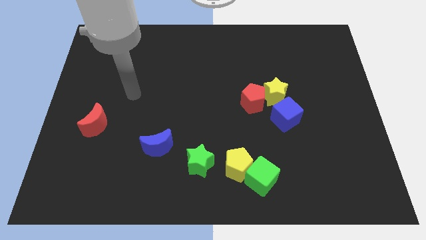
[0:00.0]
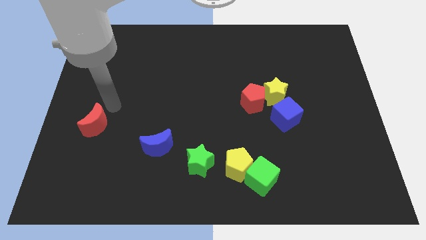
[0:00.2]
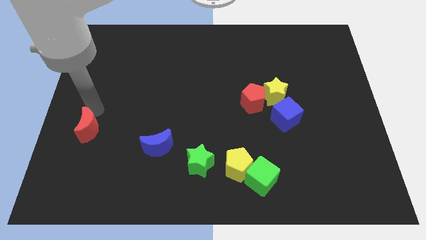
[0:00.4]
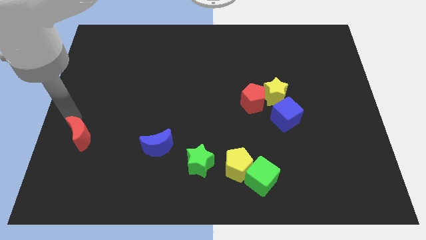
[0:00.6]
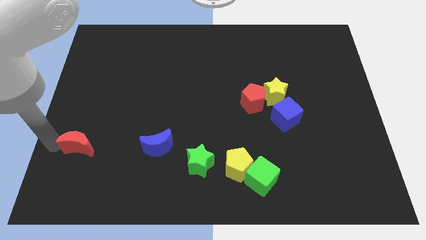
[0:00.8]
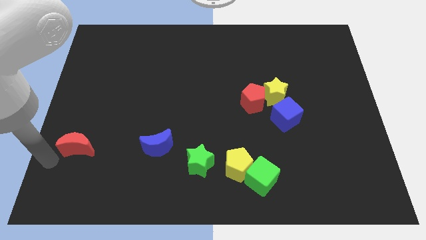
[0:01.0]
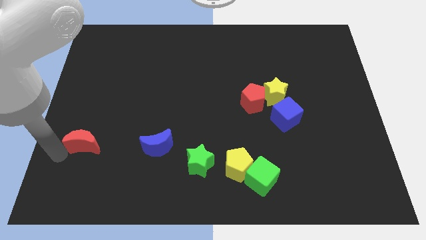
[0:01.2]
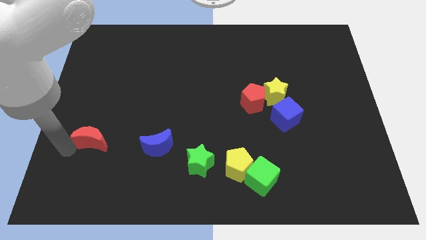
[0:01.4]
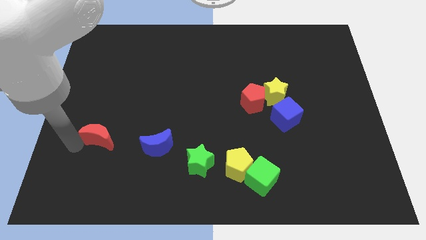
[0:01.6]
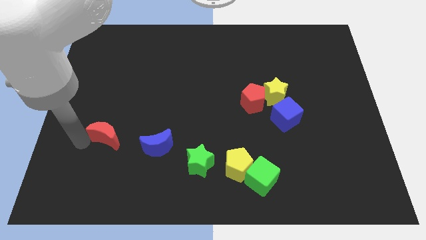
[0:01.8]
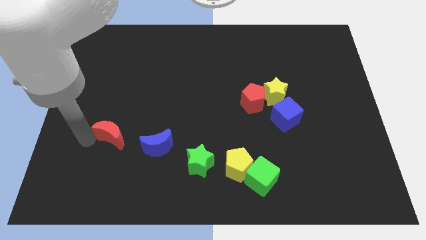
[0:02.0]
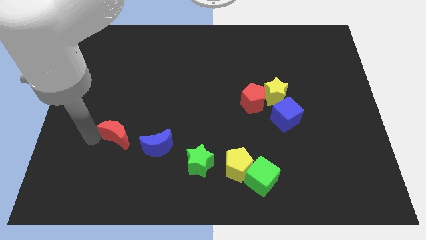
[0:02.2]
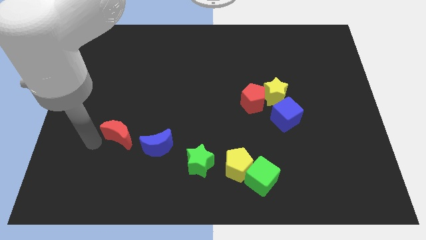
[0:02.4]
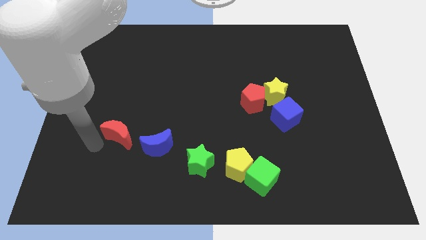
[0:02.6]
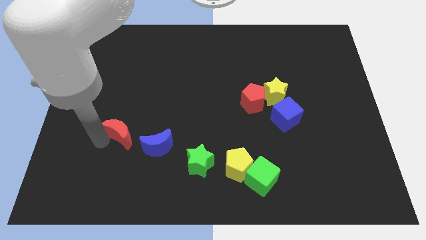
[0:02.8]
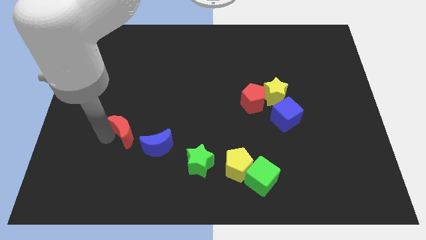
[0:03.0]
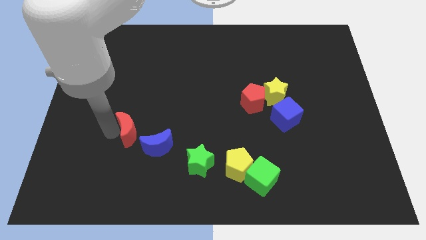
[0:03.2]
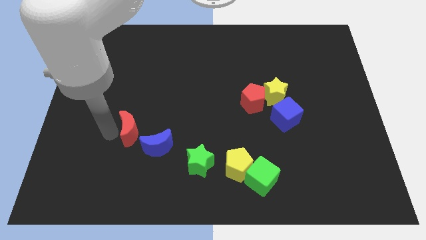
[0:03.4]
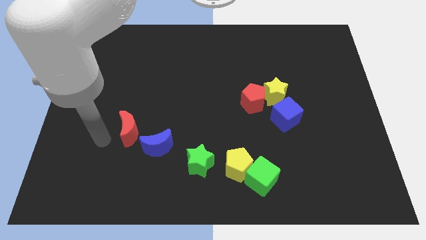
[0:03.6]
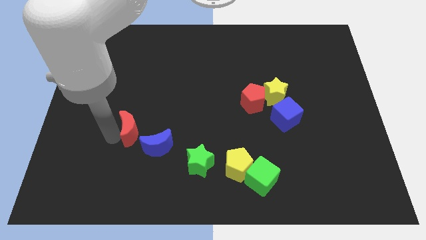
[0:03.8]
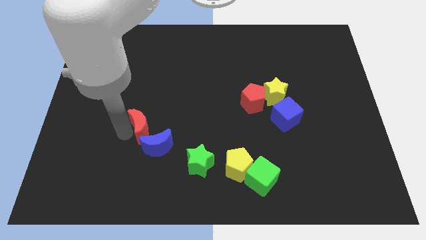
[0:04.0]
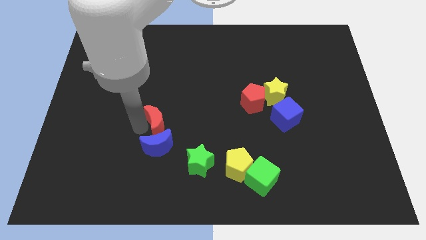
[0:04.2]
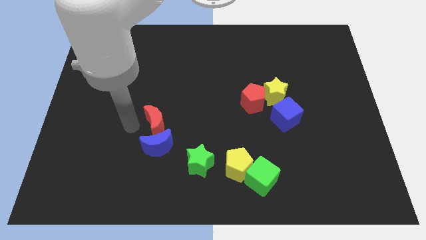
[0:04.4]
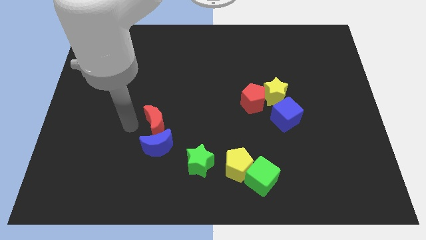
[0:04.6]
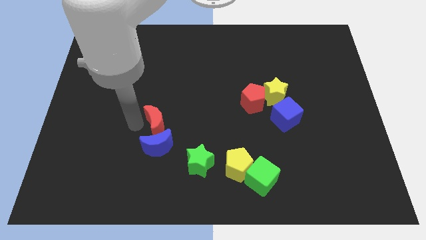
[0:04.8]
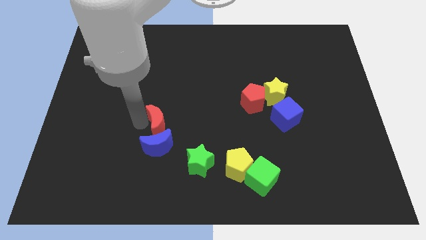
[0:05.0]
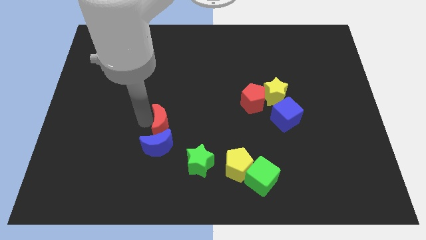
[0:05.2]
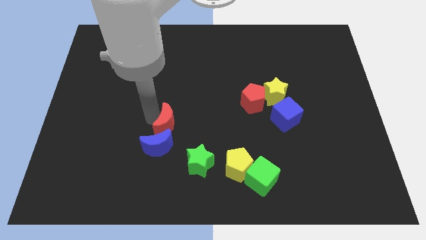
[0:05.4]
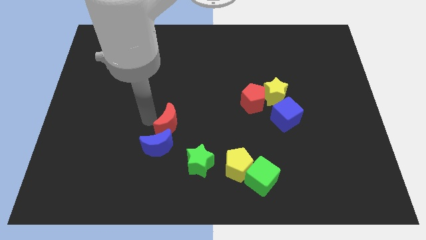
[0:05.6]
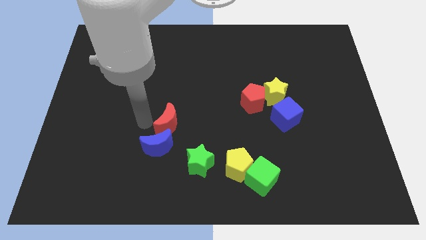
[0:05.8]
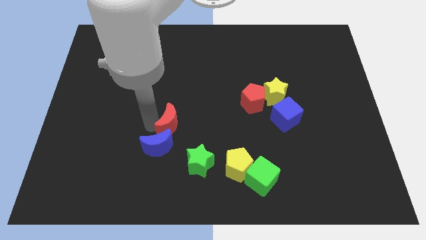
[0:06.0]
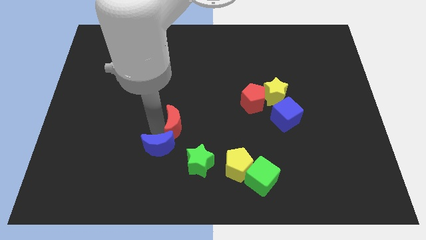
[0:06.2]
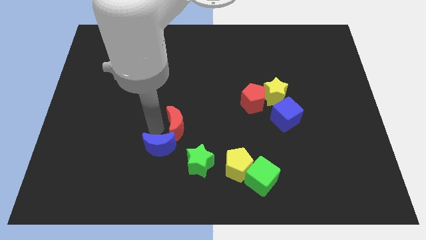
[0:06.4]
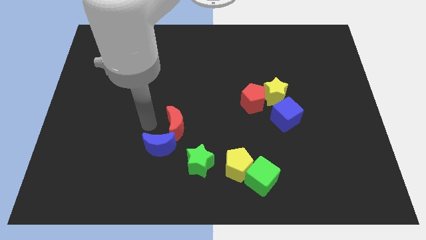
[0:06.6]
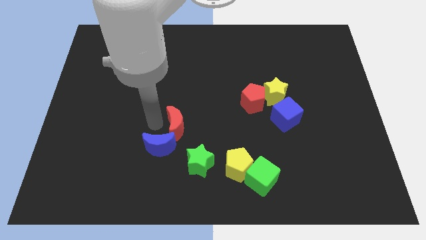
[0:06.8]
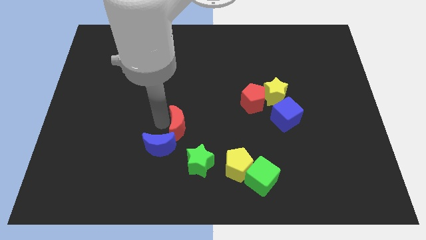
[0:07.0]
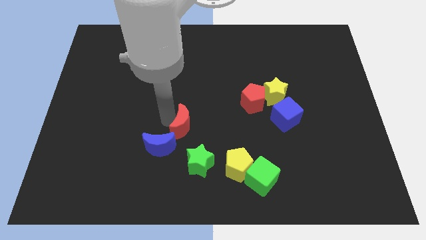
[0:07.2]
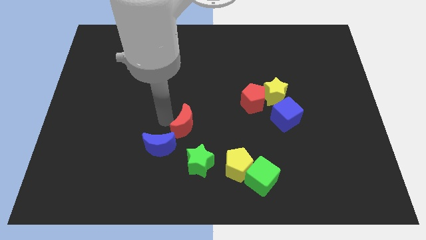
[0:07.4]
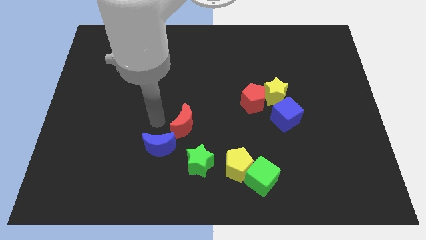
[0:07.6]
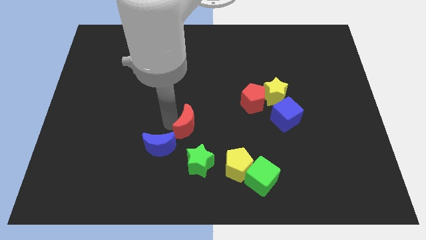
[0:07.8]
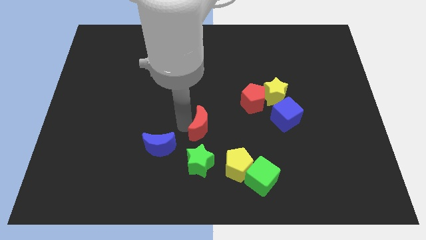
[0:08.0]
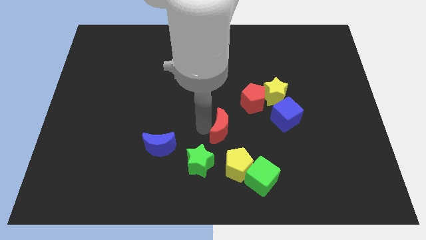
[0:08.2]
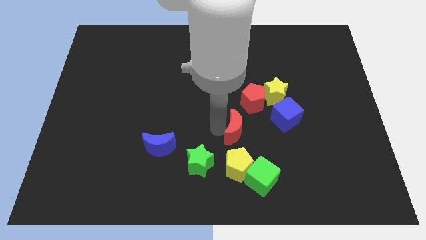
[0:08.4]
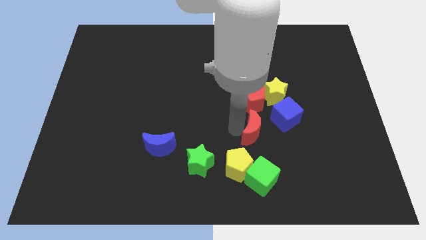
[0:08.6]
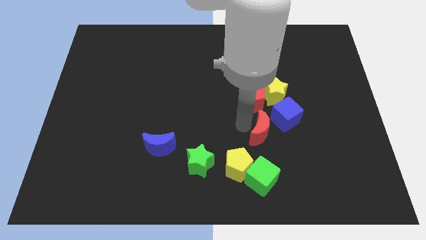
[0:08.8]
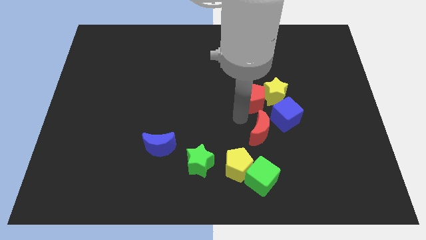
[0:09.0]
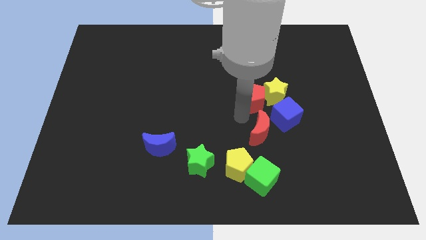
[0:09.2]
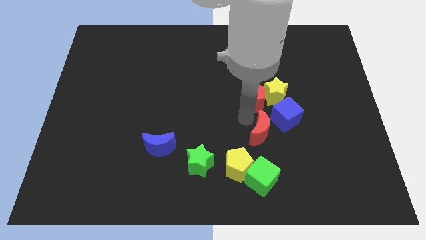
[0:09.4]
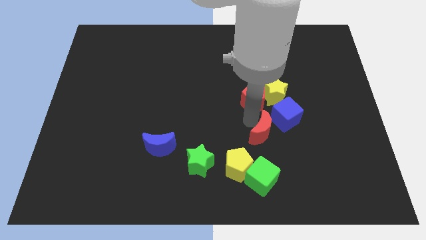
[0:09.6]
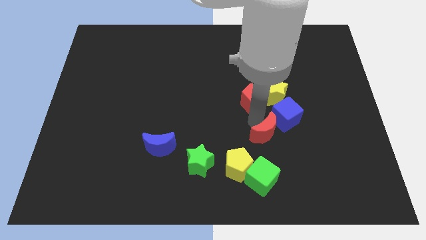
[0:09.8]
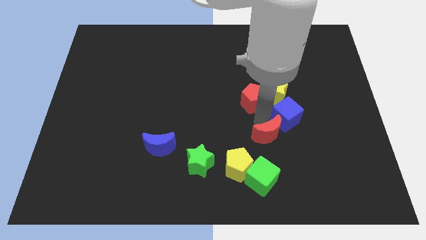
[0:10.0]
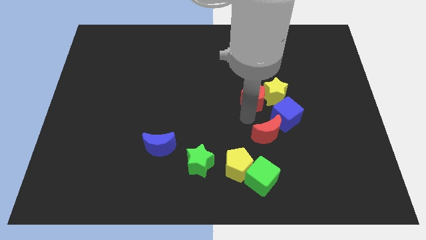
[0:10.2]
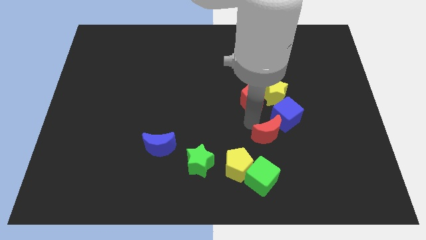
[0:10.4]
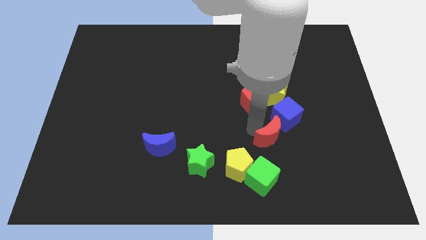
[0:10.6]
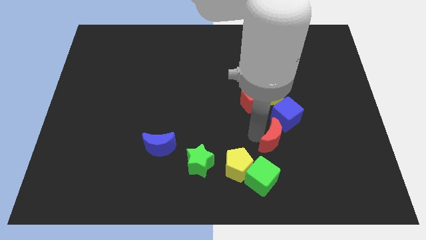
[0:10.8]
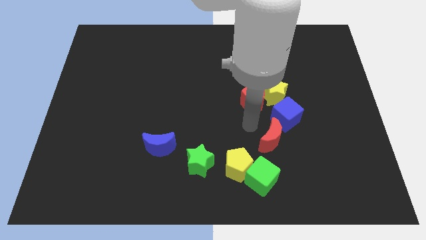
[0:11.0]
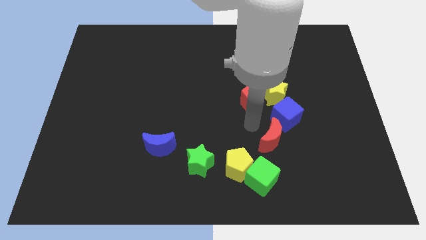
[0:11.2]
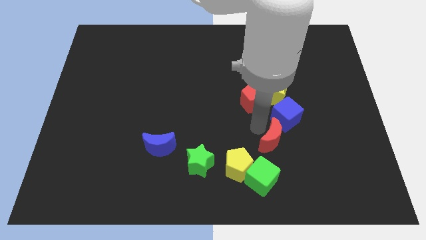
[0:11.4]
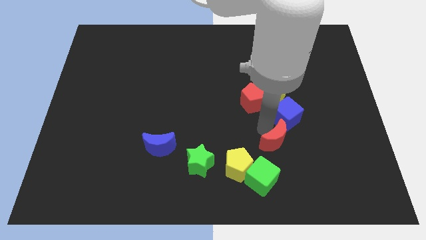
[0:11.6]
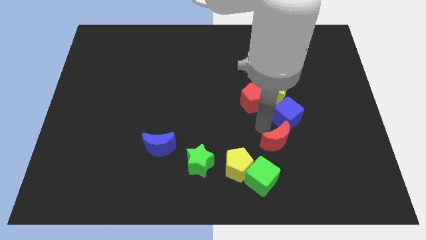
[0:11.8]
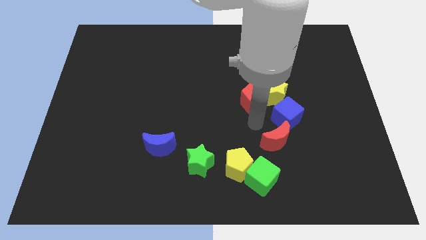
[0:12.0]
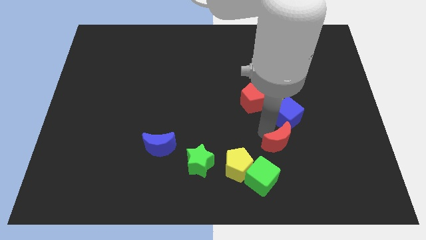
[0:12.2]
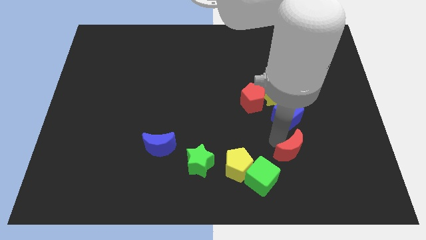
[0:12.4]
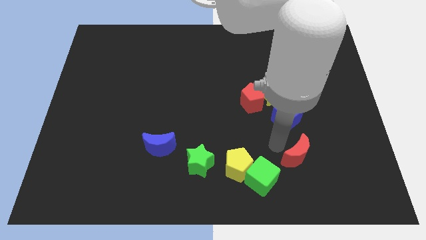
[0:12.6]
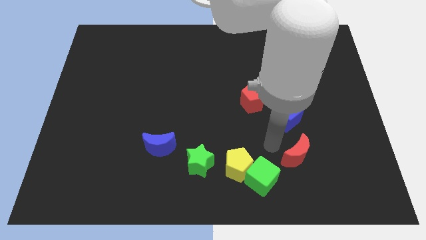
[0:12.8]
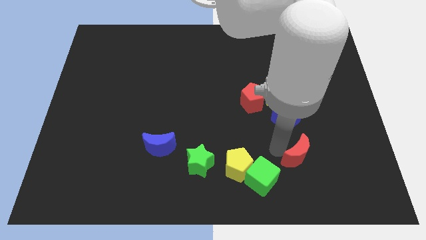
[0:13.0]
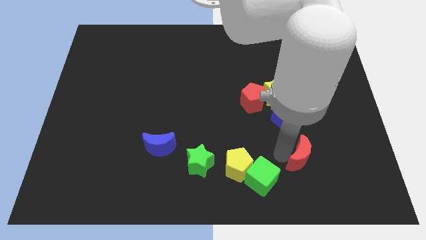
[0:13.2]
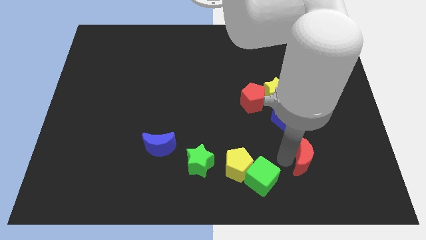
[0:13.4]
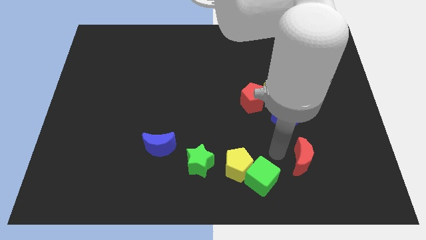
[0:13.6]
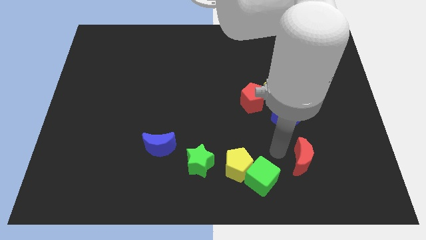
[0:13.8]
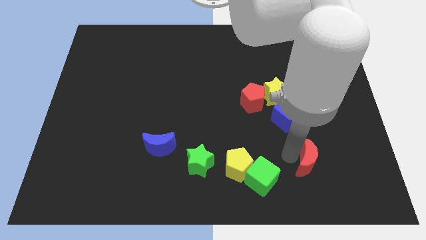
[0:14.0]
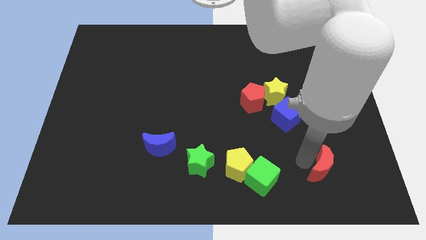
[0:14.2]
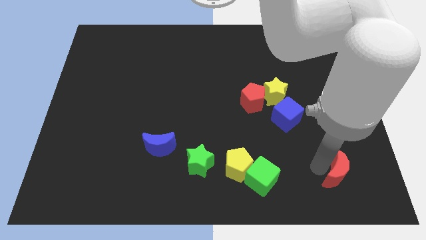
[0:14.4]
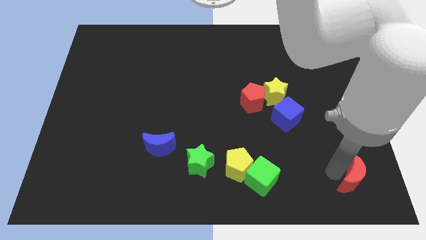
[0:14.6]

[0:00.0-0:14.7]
slide the red moon to the lower right corner
